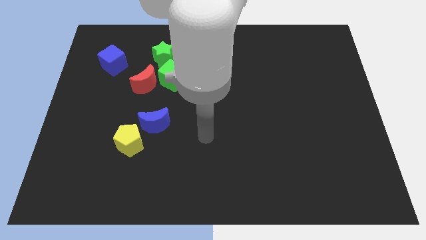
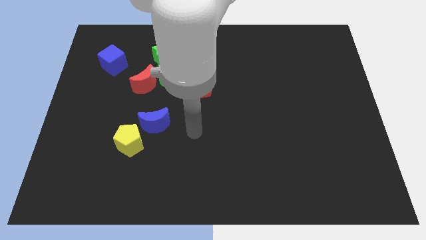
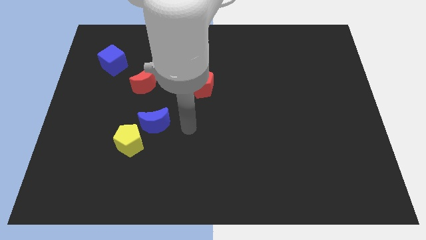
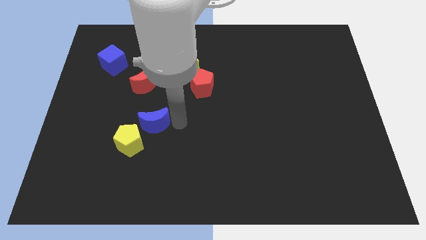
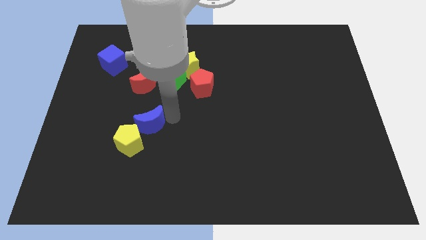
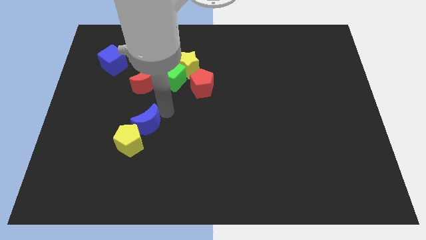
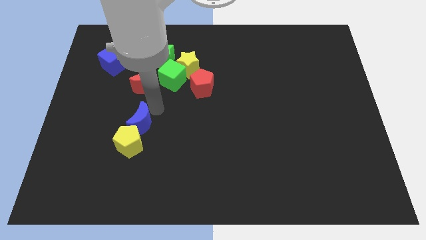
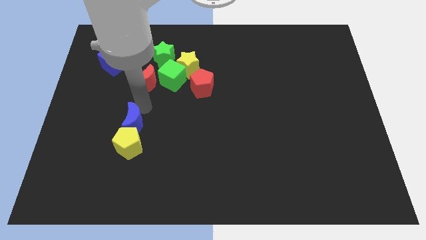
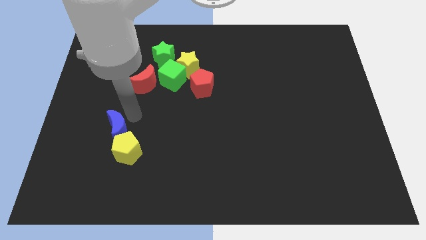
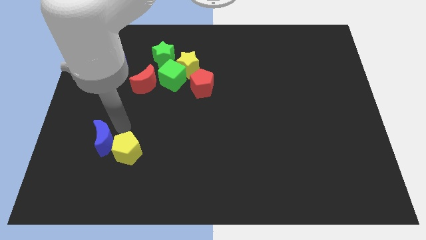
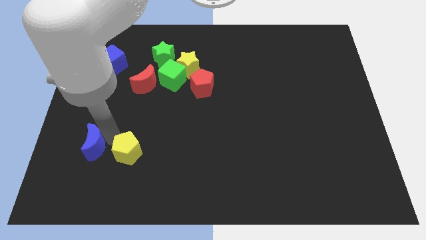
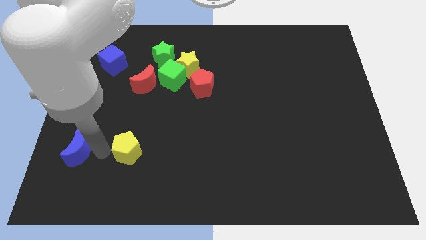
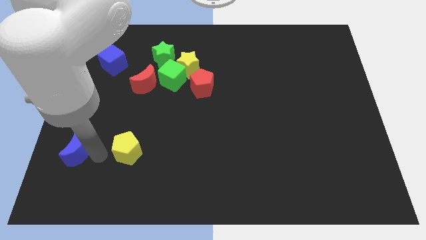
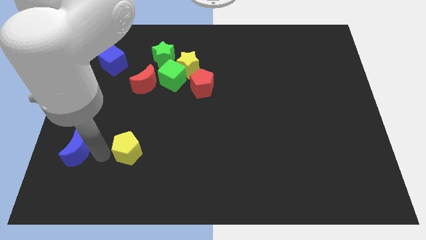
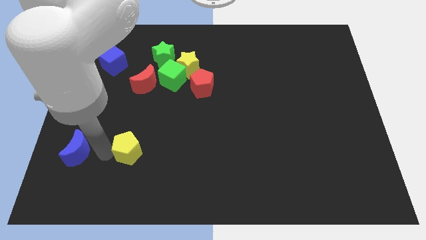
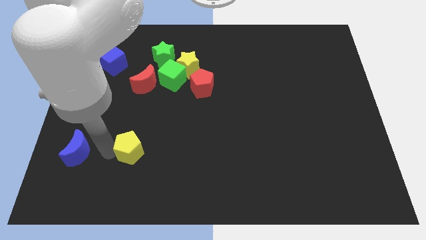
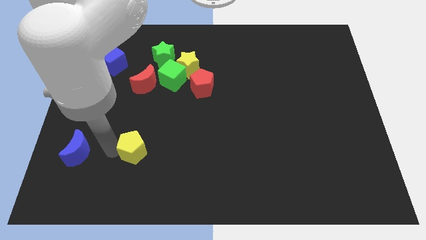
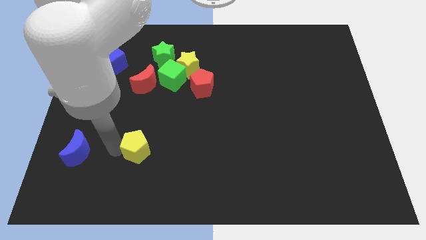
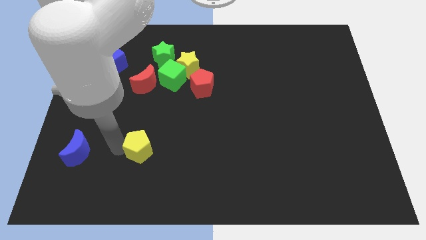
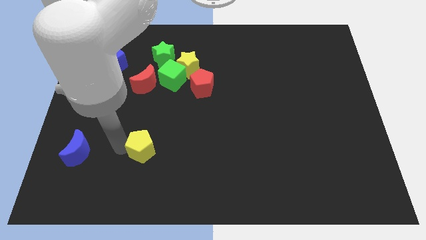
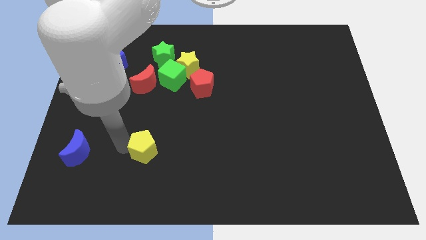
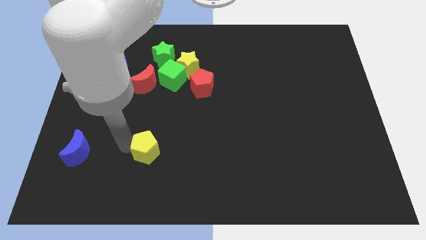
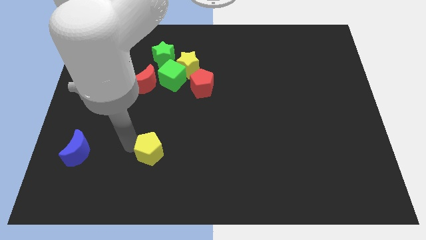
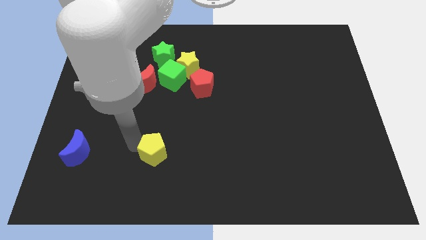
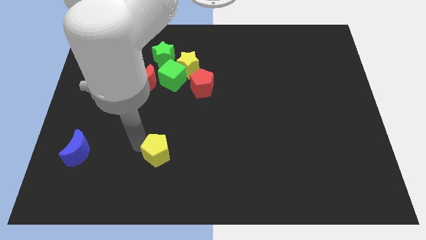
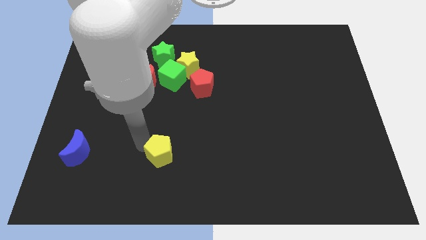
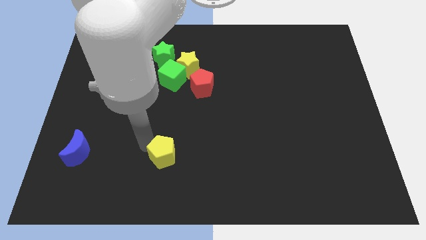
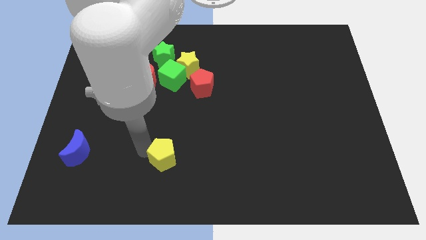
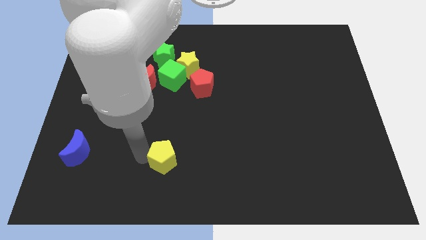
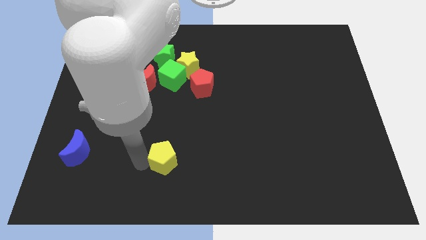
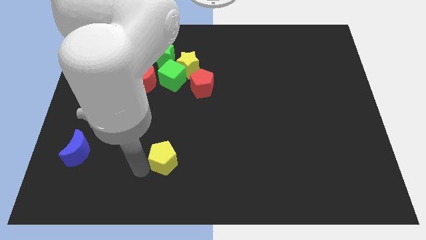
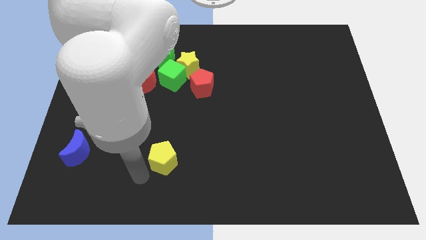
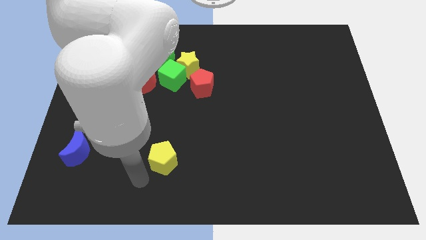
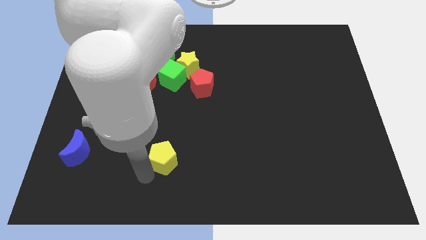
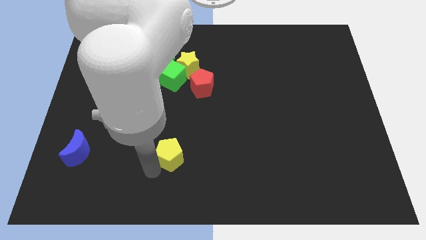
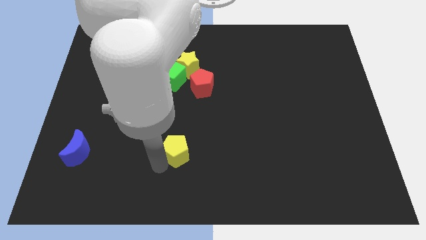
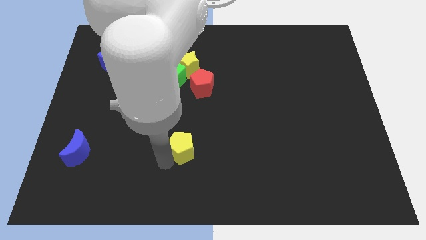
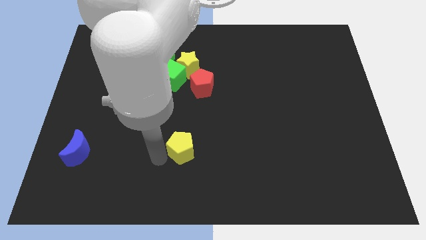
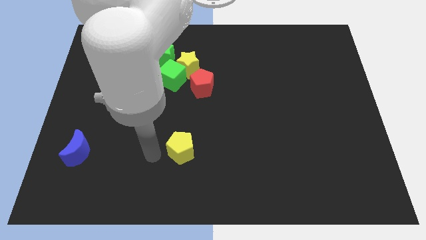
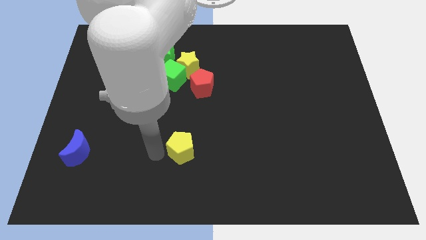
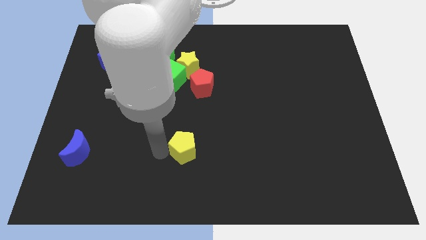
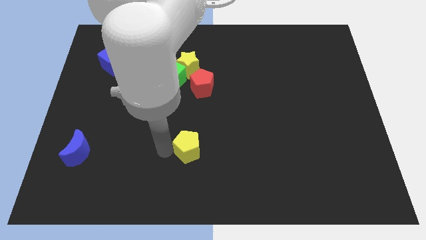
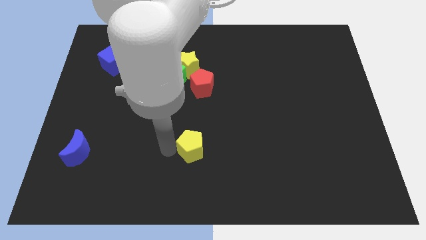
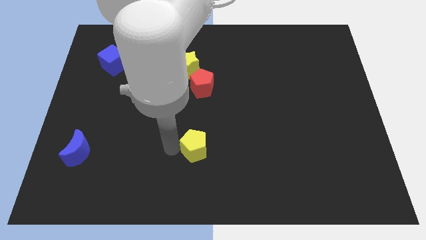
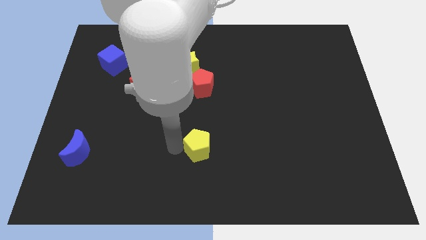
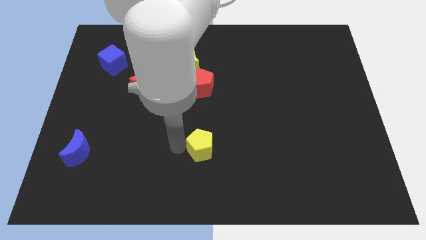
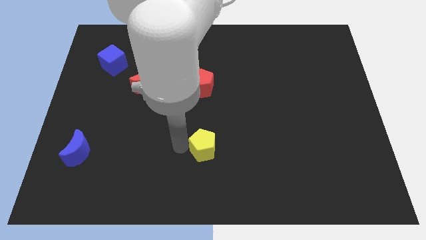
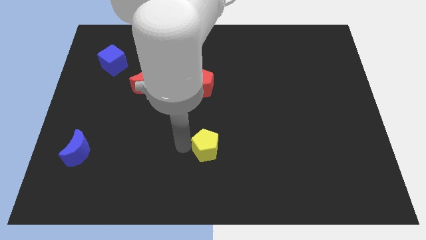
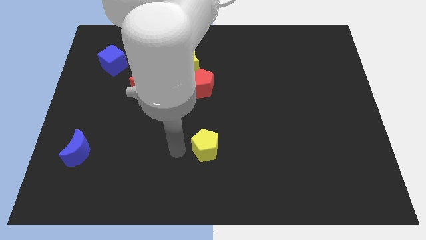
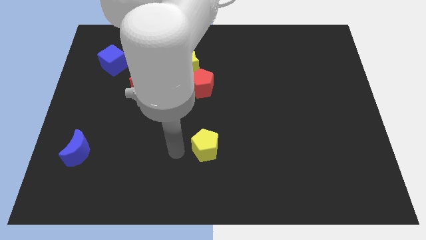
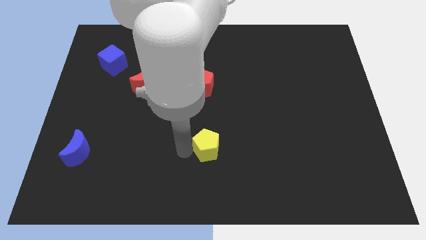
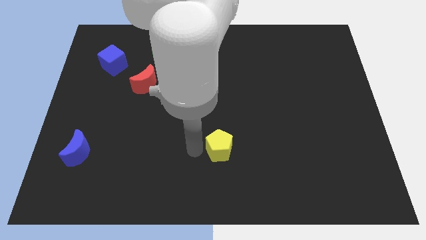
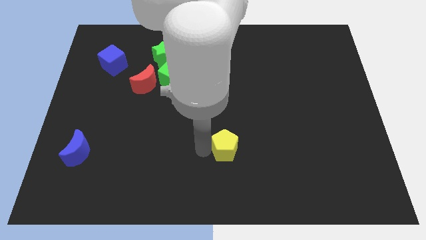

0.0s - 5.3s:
push the yellow pentagon right

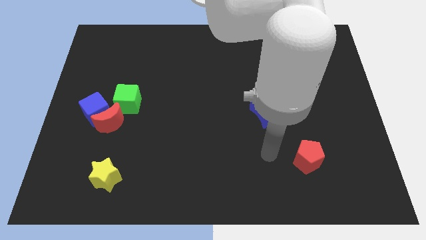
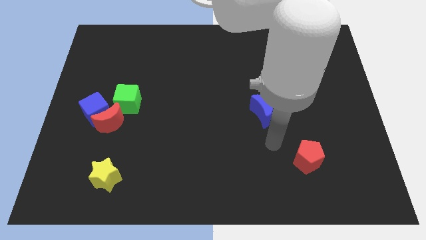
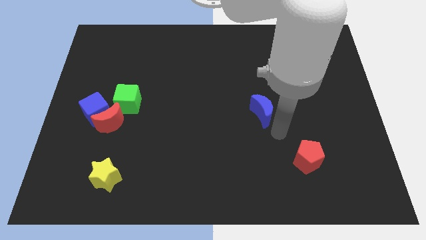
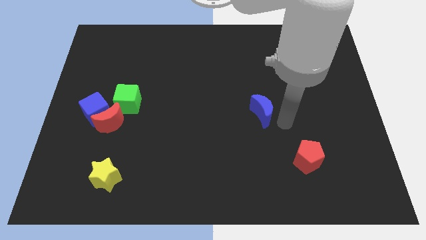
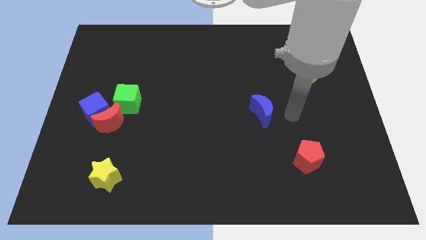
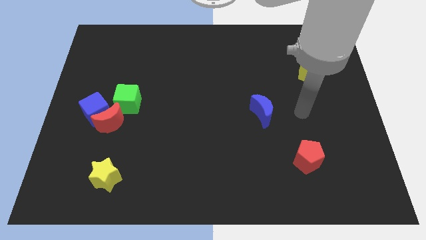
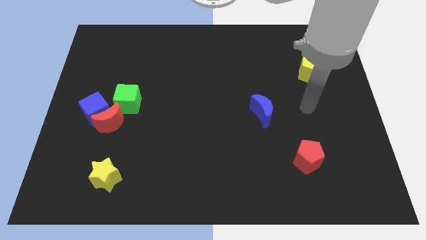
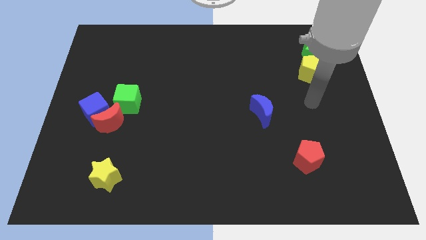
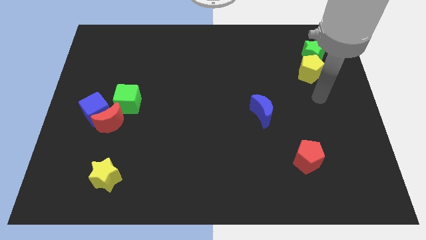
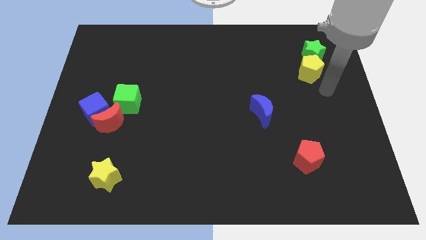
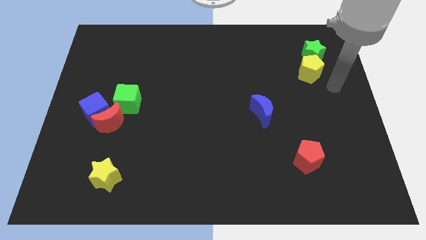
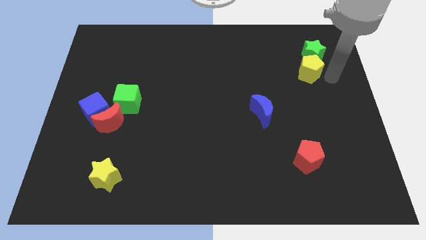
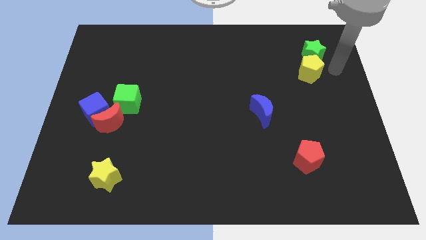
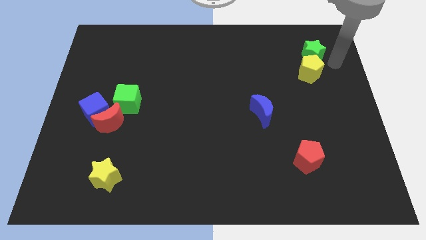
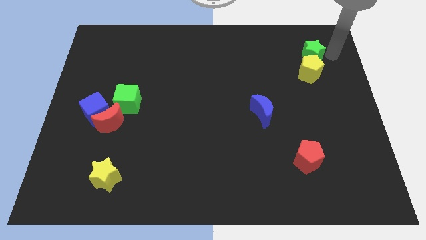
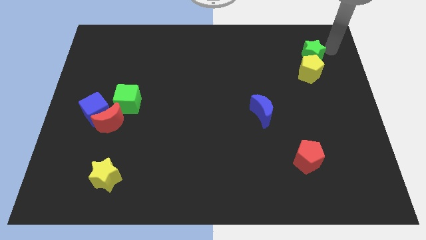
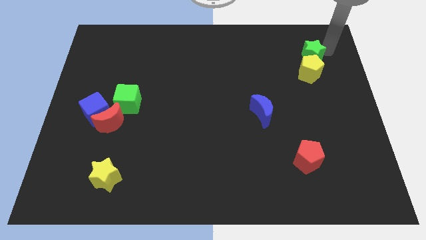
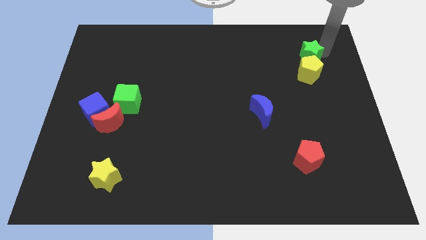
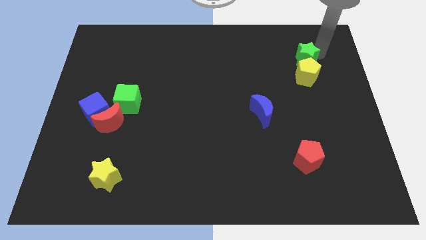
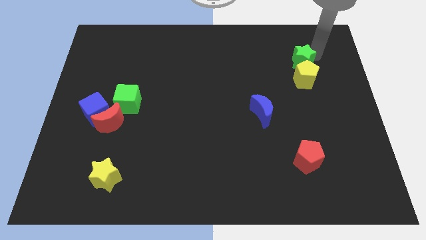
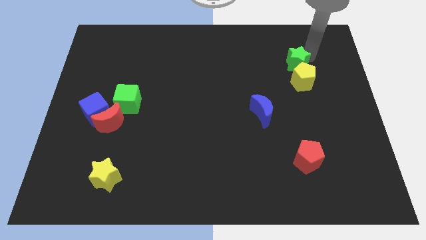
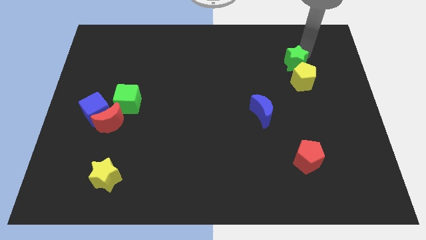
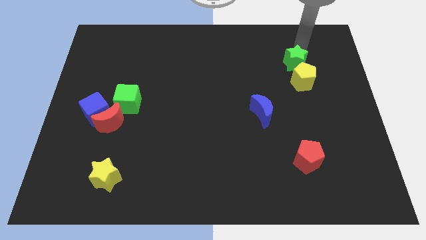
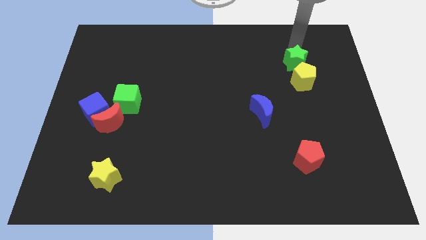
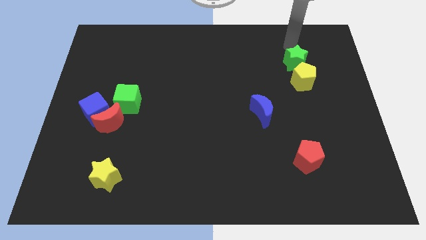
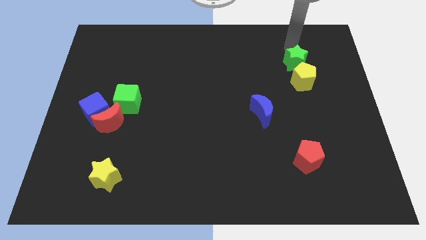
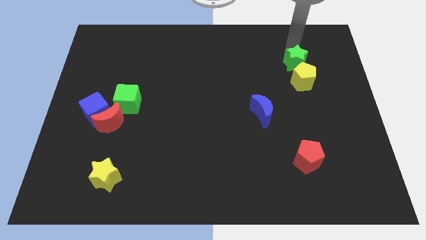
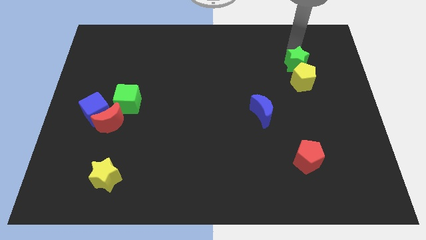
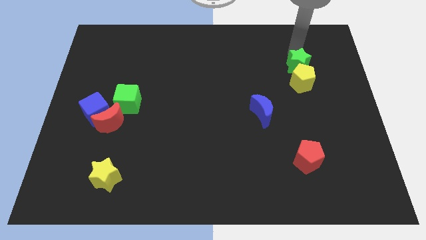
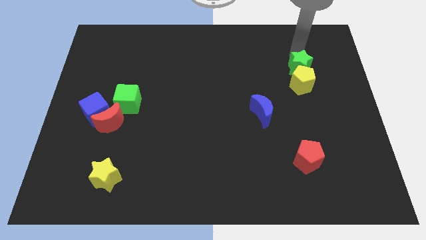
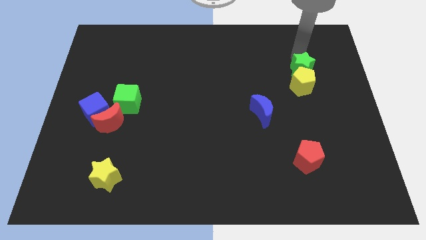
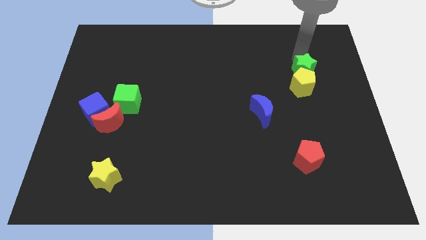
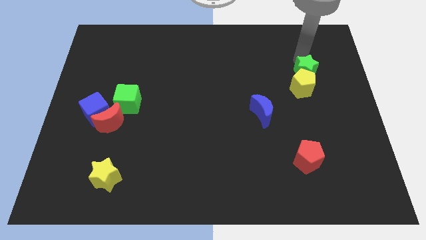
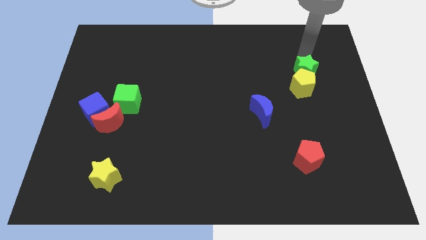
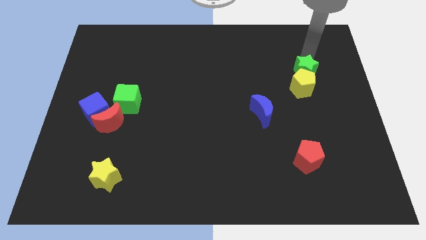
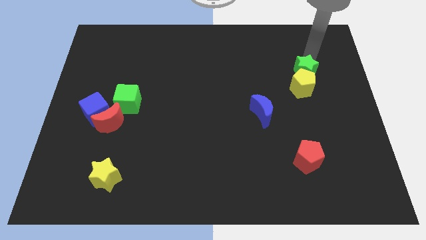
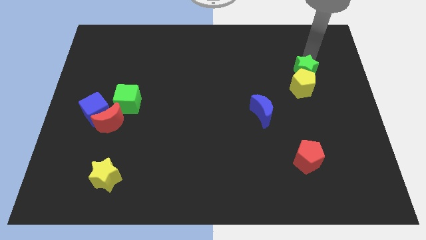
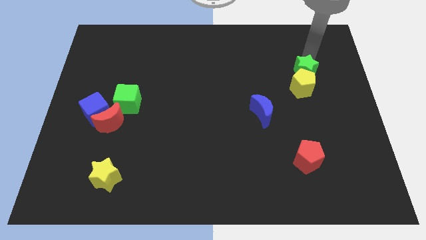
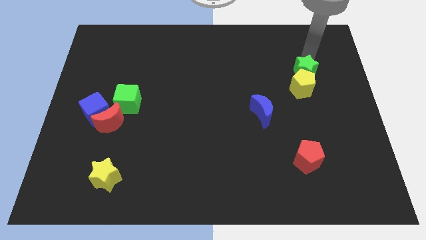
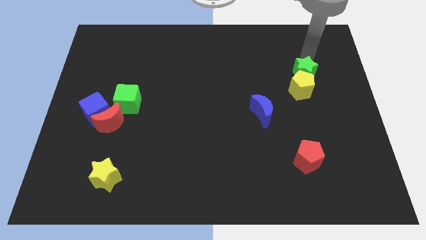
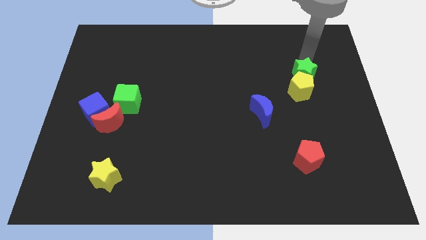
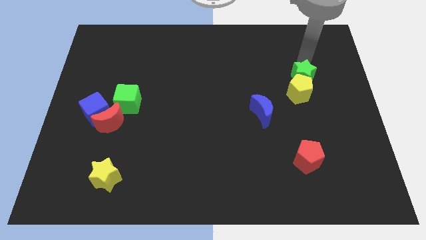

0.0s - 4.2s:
slightly slide the green star down
